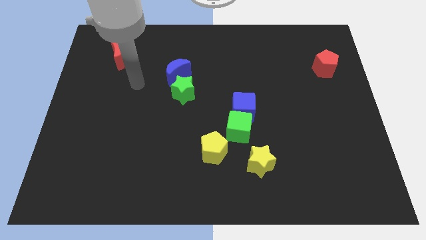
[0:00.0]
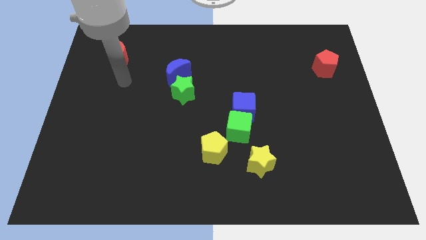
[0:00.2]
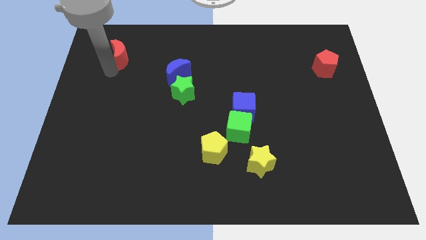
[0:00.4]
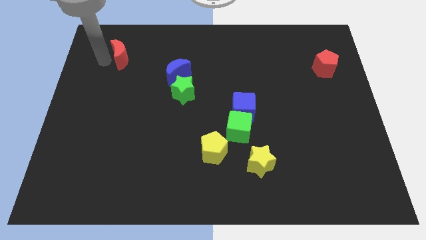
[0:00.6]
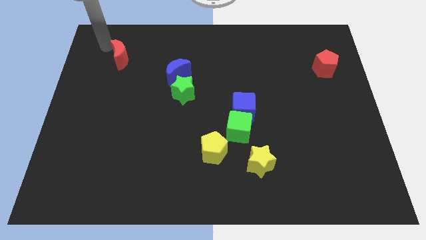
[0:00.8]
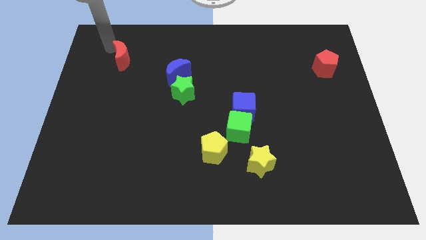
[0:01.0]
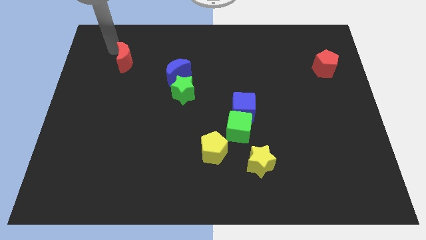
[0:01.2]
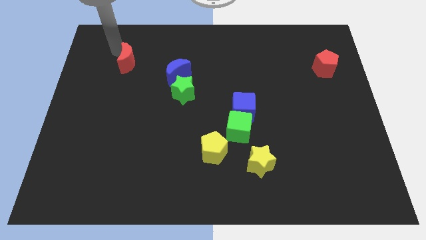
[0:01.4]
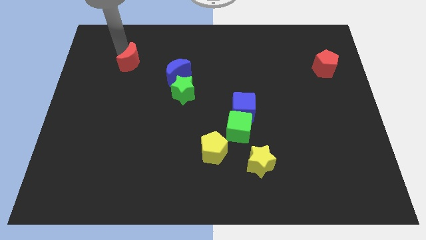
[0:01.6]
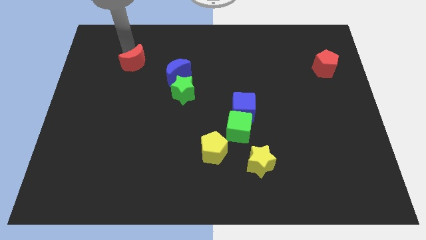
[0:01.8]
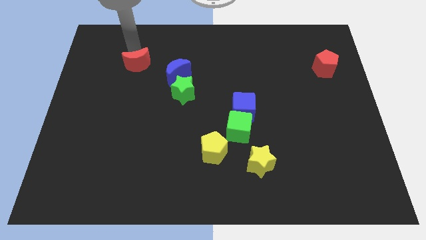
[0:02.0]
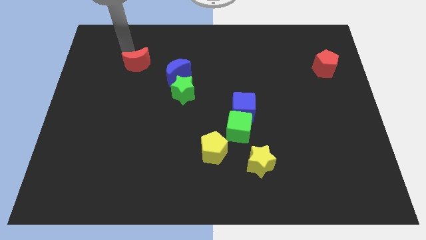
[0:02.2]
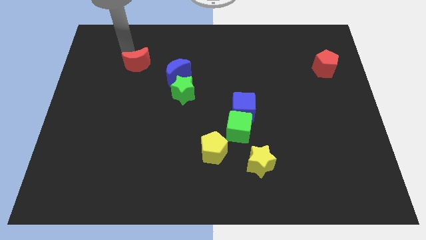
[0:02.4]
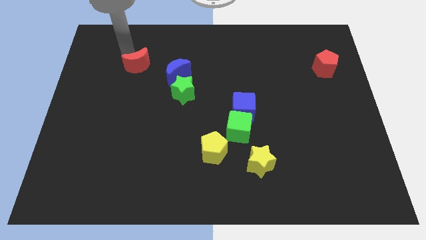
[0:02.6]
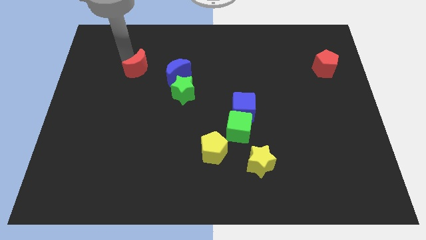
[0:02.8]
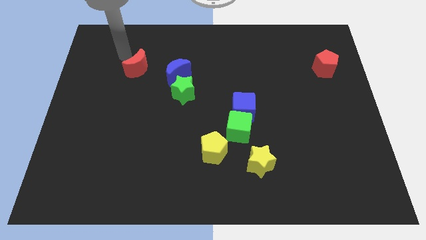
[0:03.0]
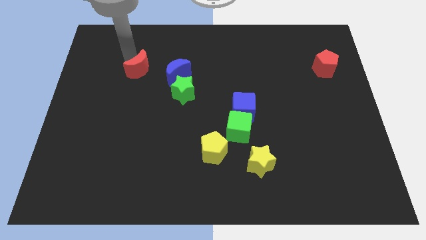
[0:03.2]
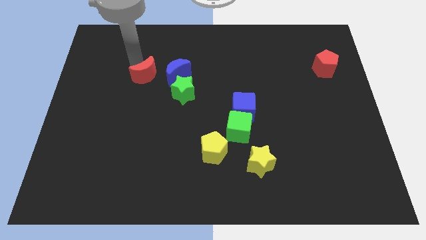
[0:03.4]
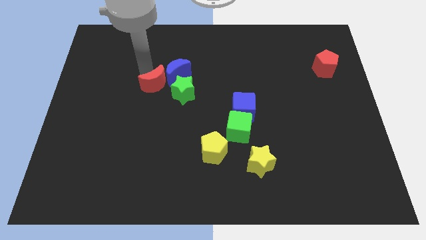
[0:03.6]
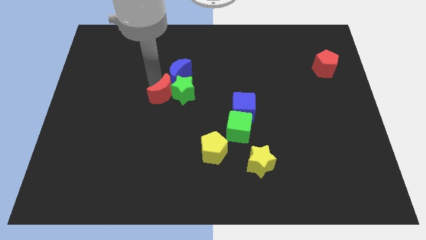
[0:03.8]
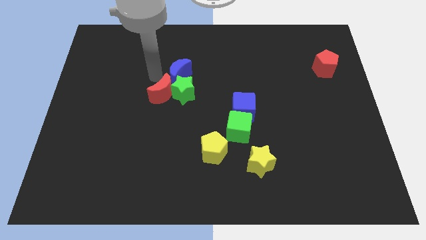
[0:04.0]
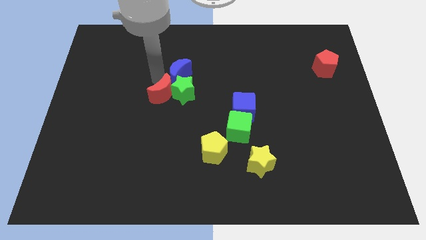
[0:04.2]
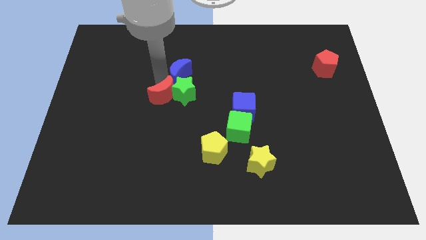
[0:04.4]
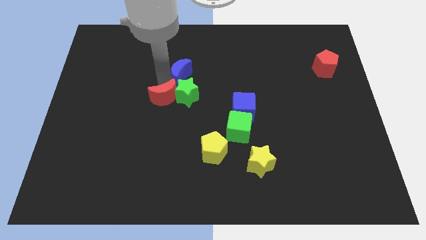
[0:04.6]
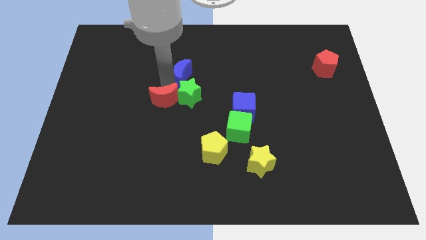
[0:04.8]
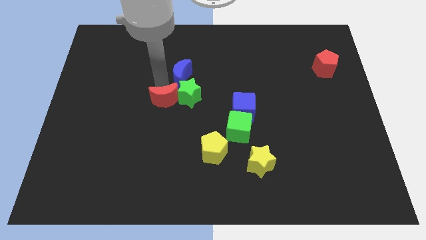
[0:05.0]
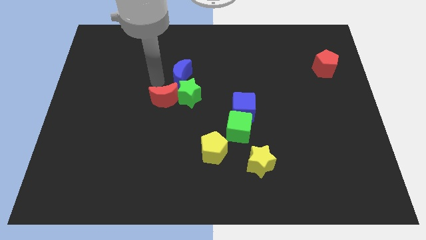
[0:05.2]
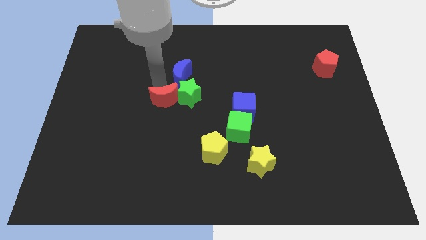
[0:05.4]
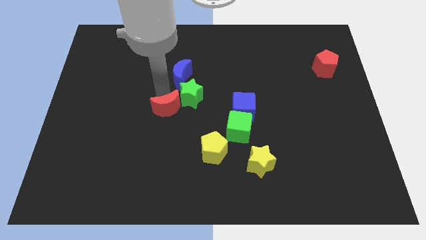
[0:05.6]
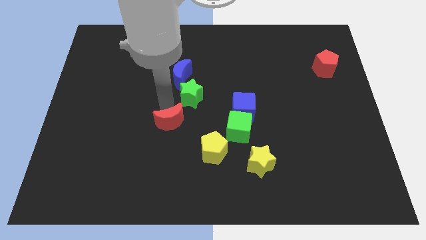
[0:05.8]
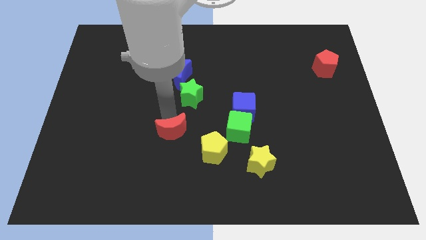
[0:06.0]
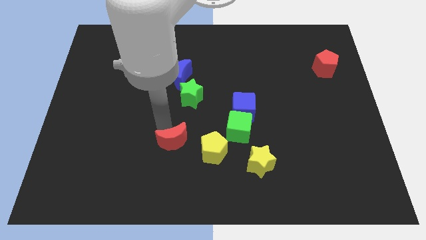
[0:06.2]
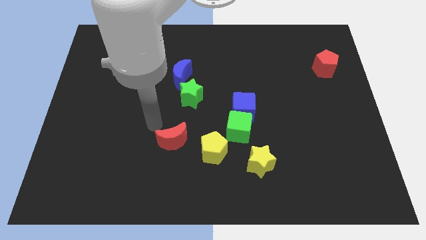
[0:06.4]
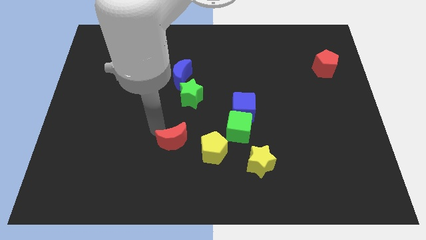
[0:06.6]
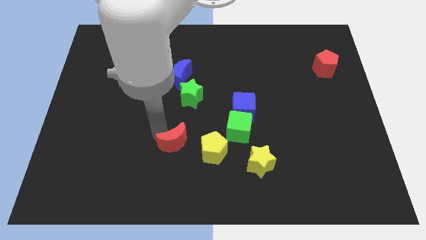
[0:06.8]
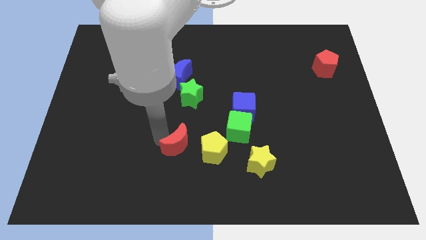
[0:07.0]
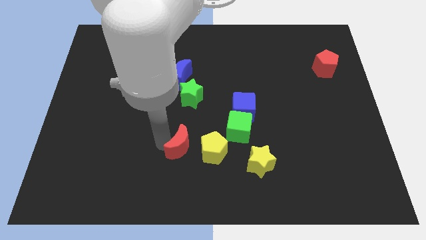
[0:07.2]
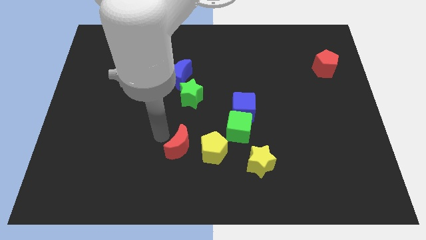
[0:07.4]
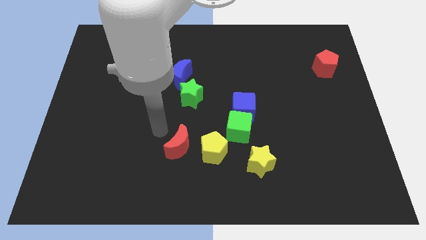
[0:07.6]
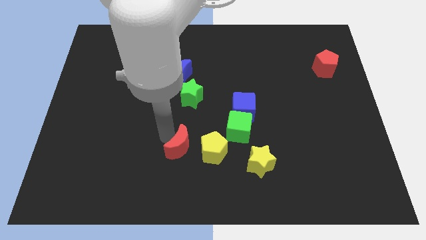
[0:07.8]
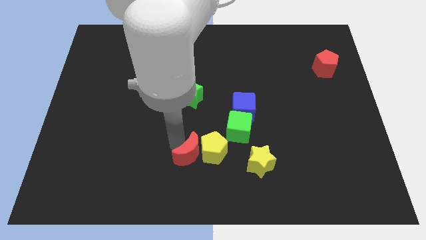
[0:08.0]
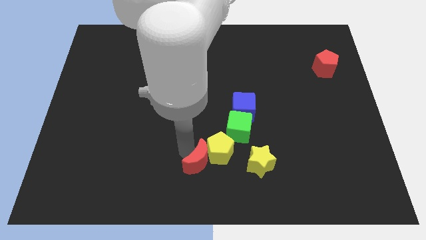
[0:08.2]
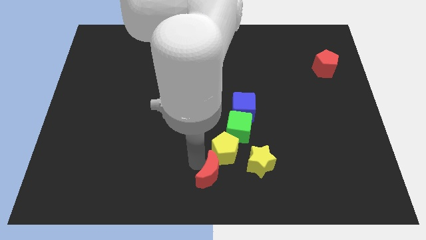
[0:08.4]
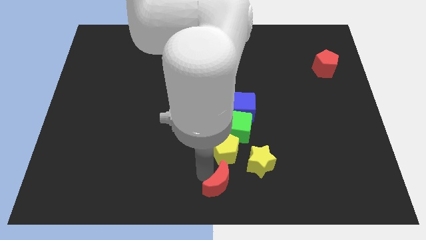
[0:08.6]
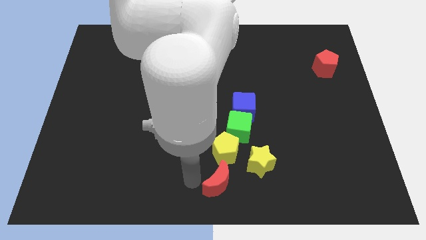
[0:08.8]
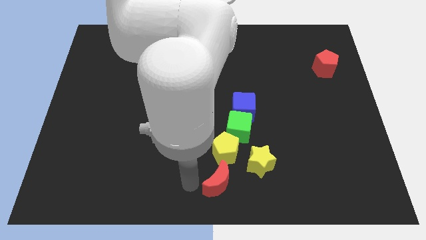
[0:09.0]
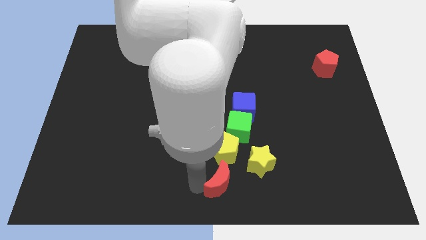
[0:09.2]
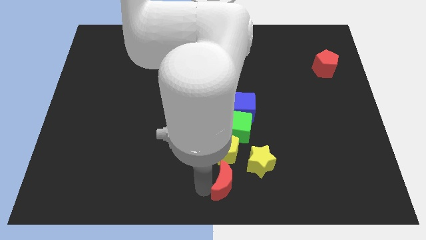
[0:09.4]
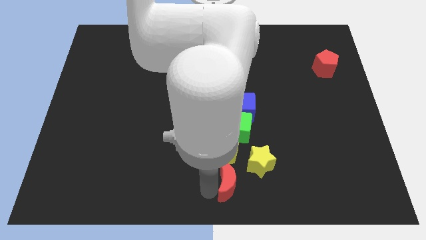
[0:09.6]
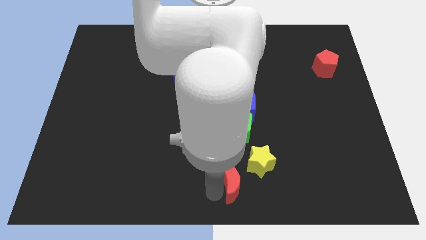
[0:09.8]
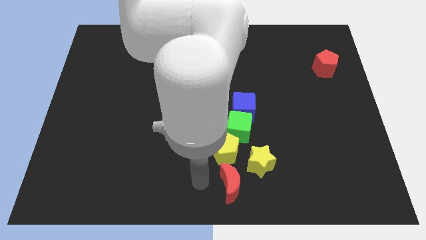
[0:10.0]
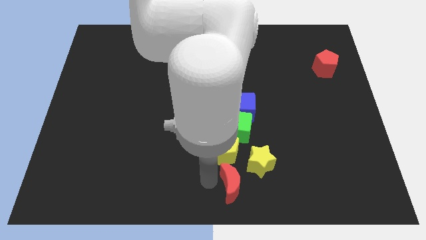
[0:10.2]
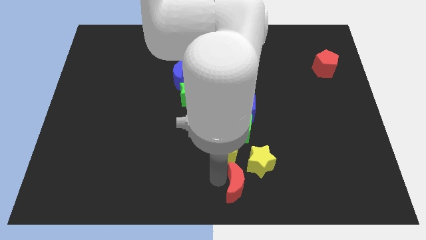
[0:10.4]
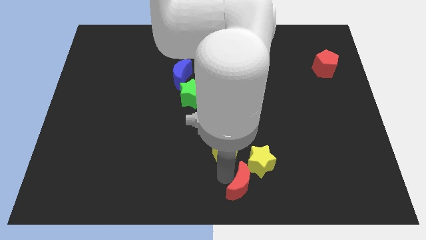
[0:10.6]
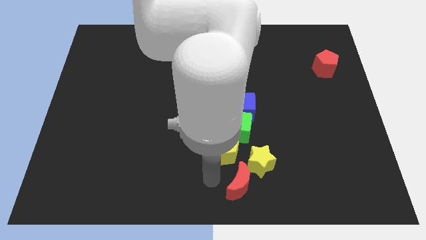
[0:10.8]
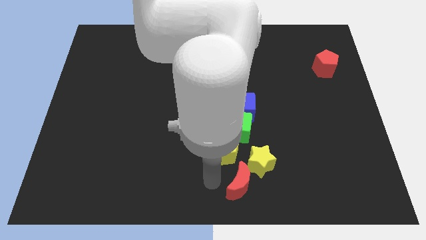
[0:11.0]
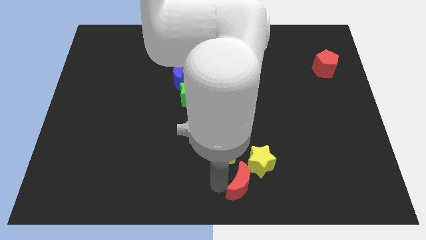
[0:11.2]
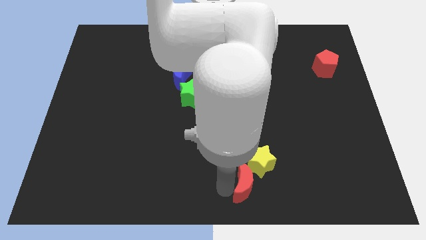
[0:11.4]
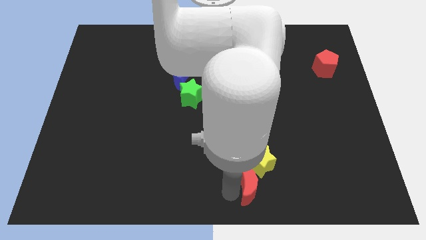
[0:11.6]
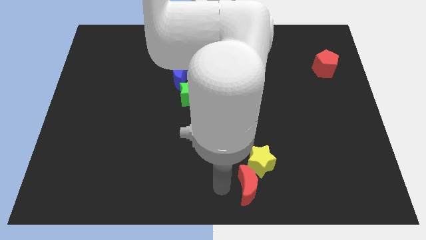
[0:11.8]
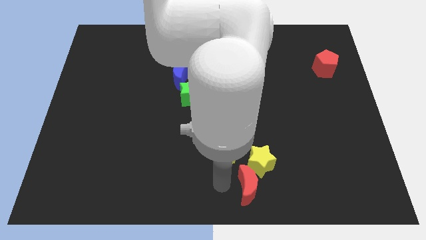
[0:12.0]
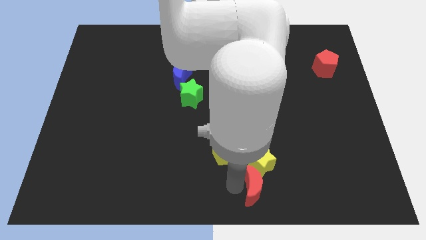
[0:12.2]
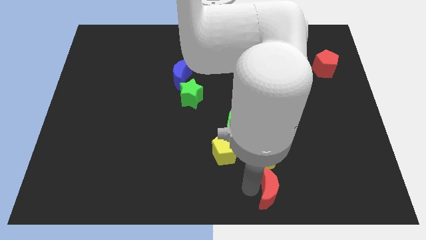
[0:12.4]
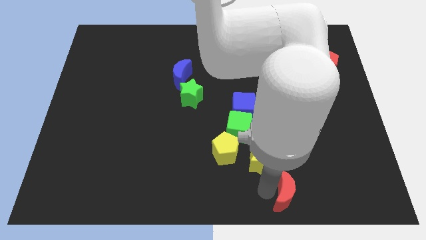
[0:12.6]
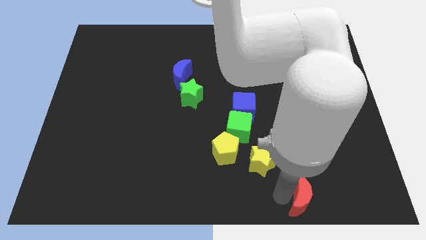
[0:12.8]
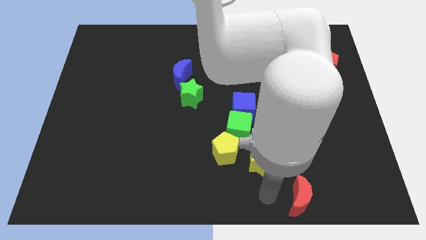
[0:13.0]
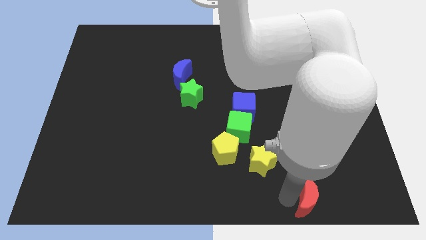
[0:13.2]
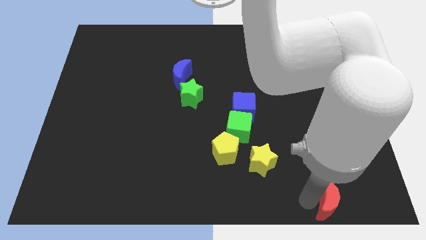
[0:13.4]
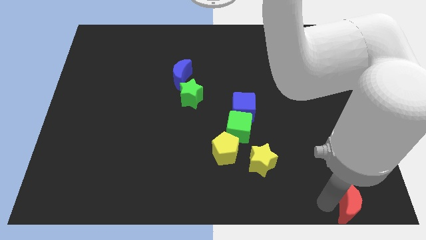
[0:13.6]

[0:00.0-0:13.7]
put the red moon to the bottom right corner
